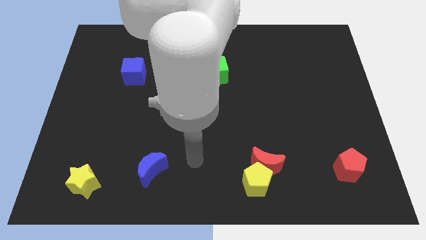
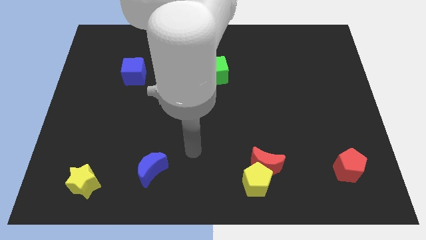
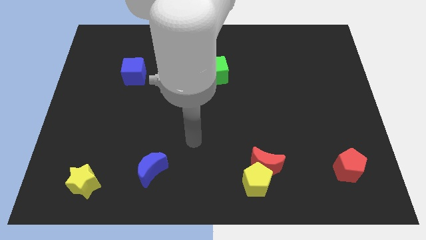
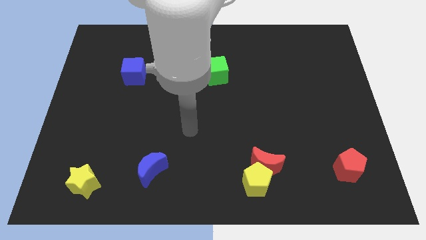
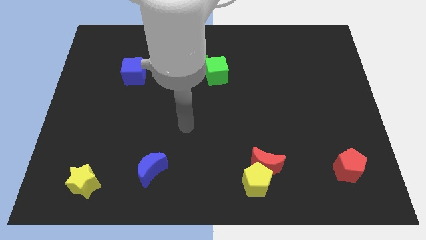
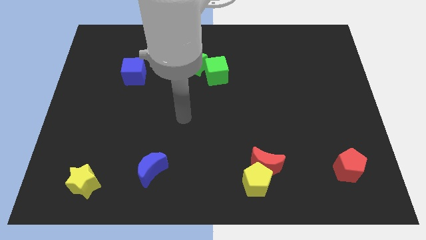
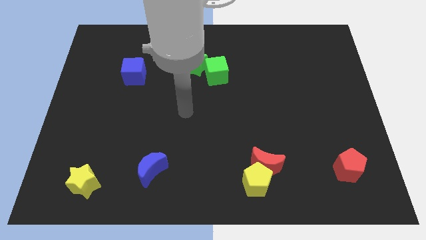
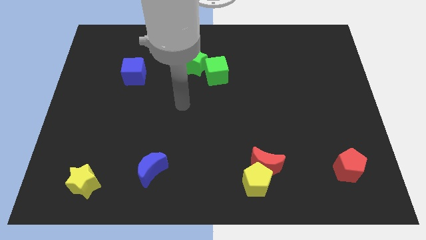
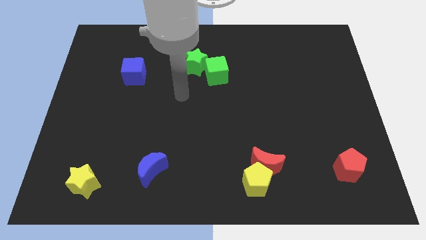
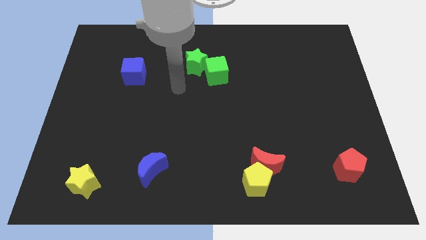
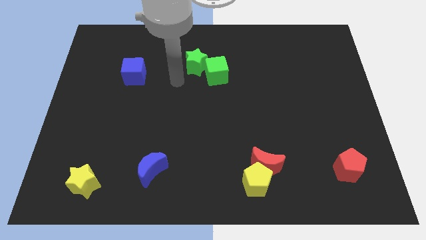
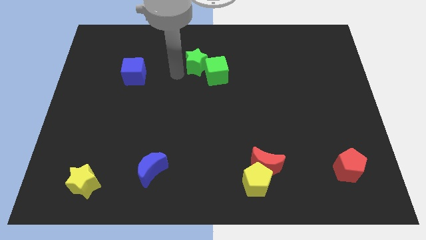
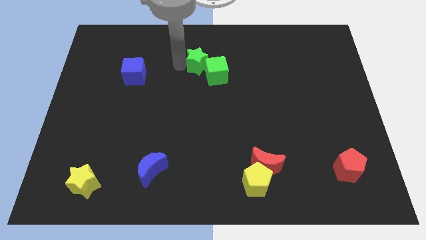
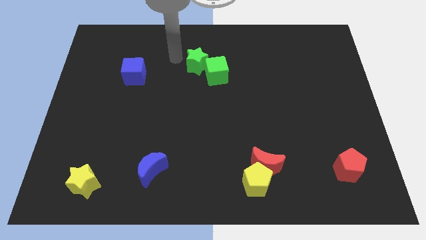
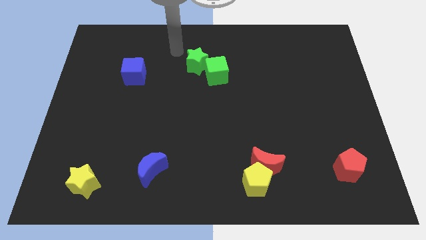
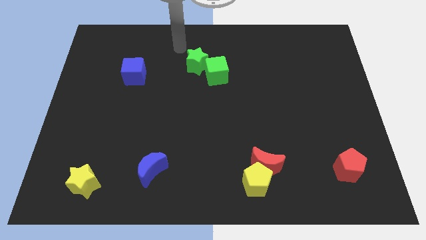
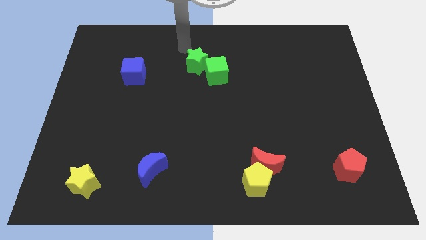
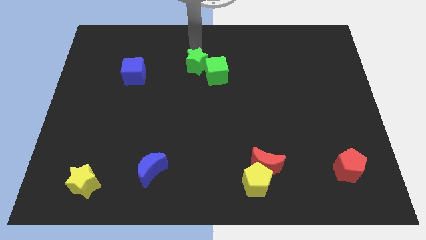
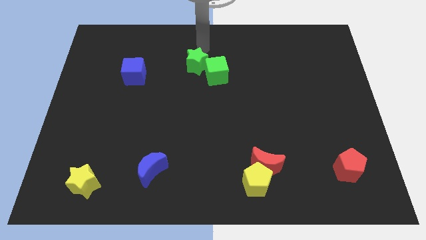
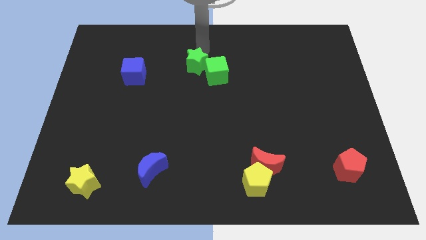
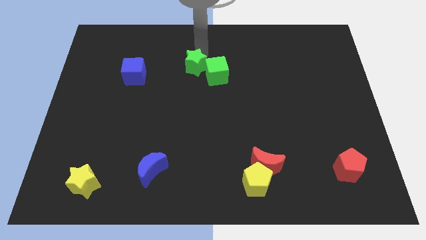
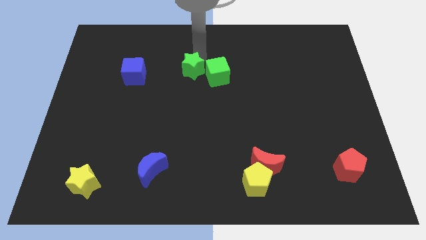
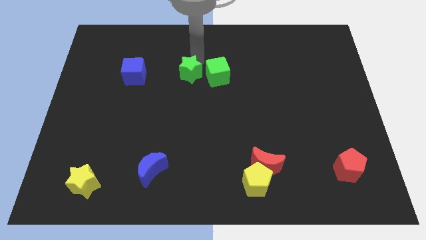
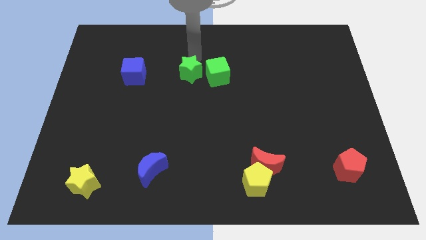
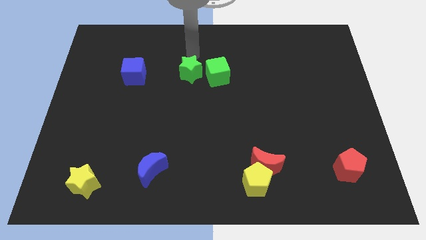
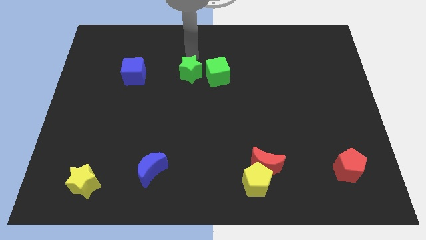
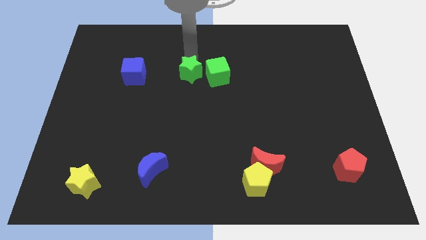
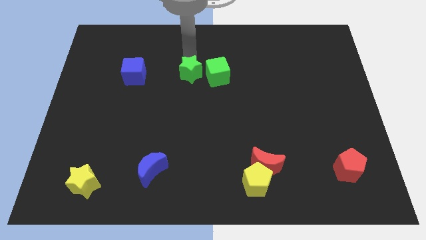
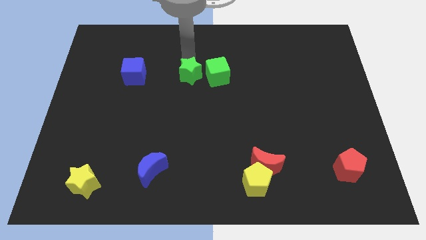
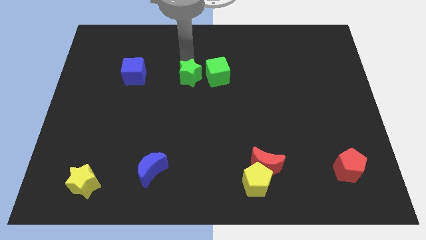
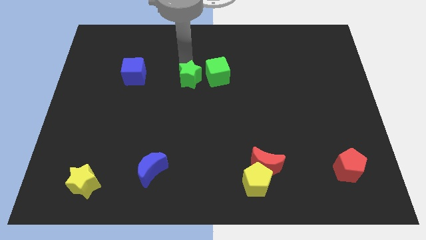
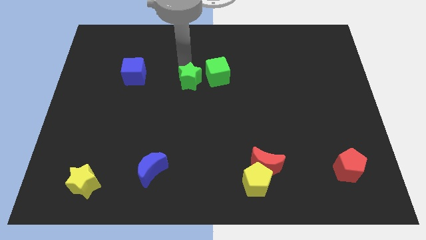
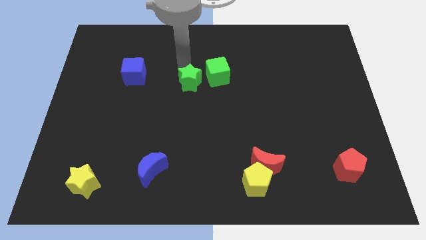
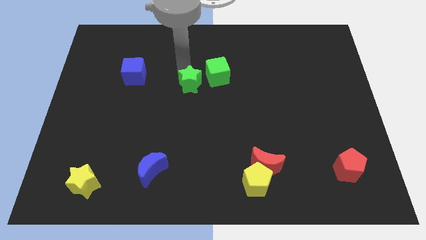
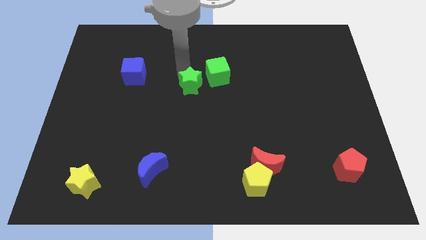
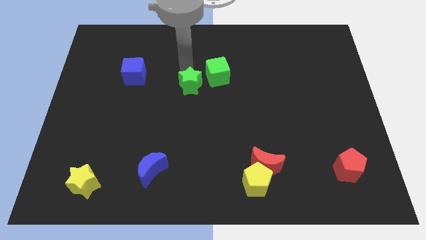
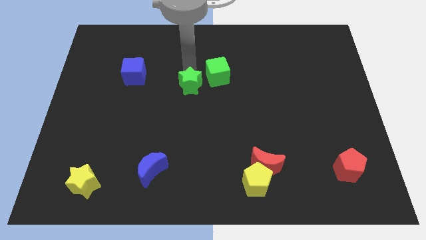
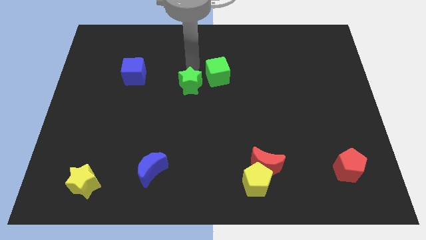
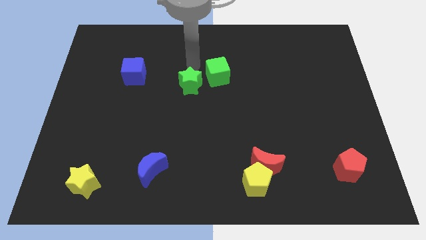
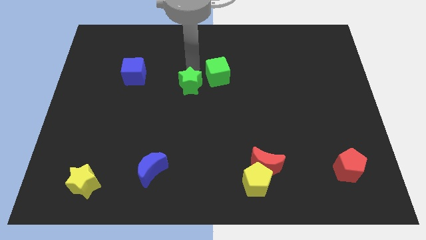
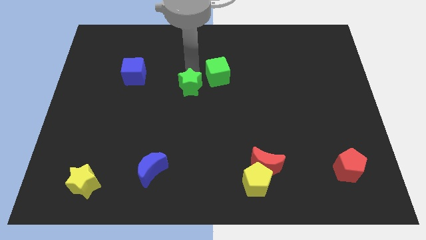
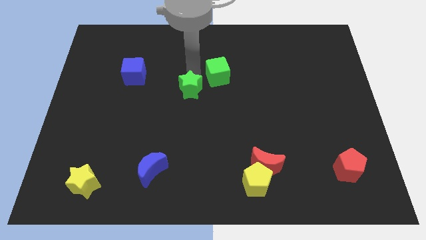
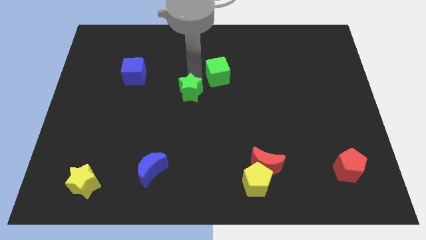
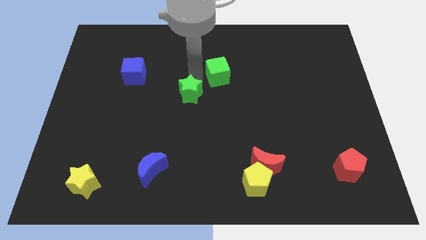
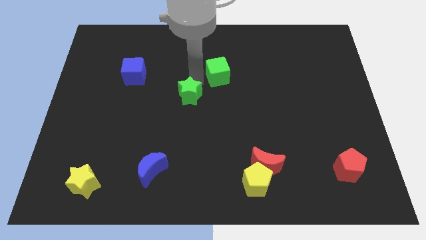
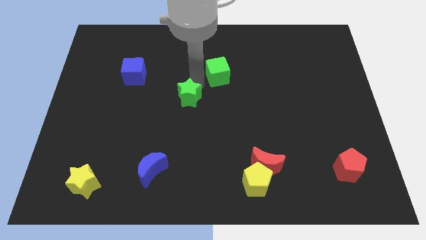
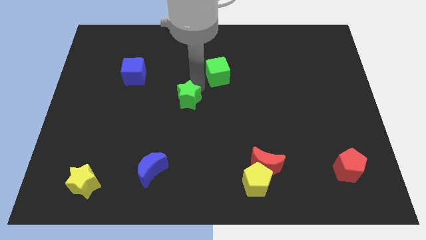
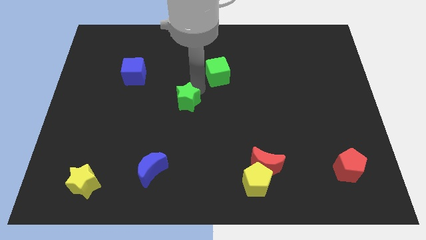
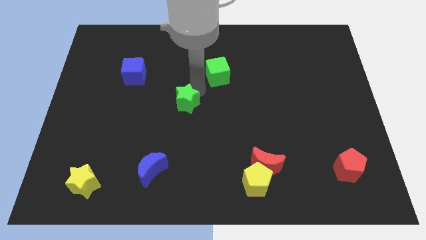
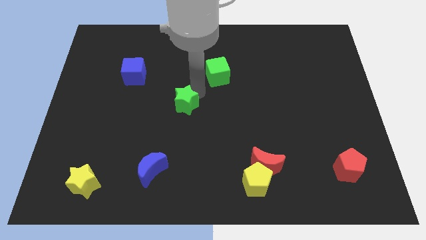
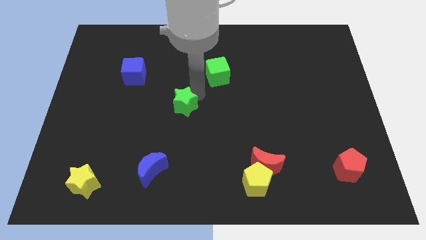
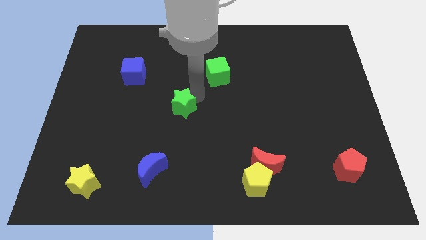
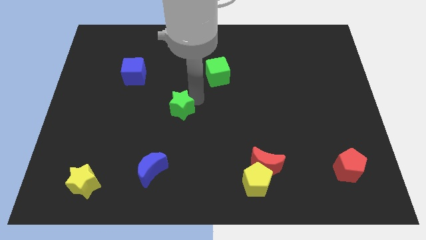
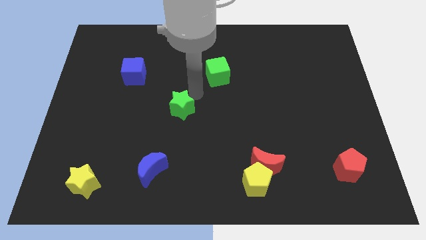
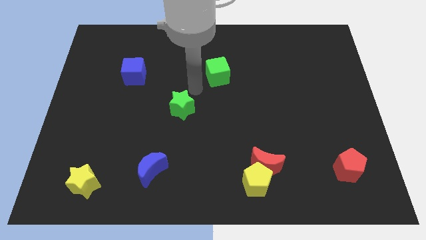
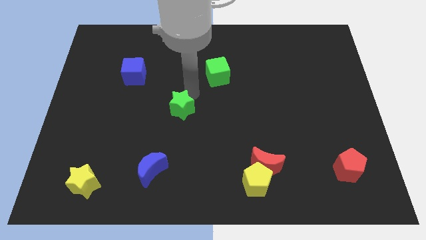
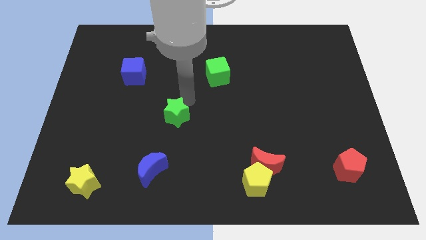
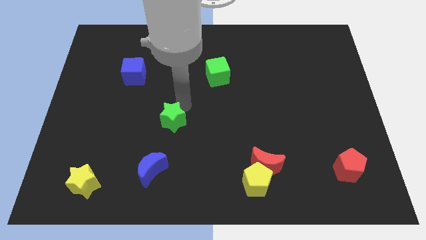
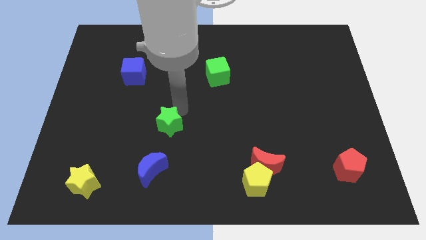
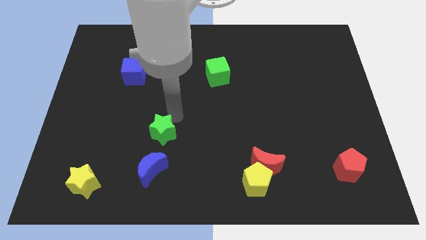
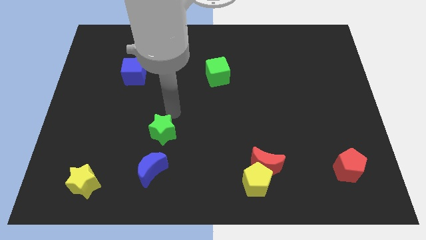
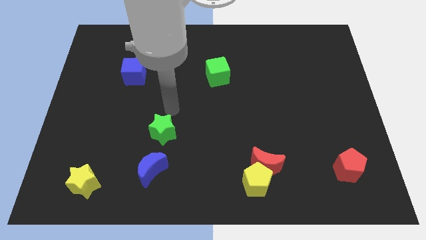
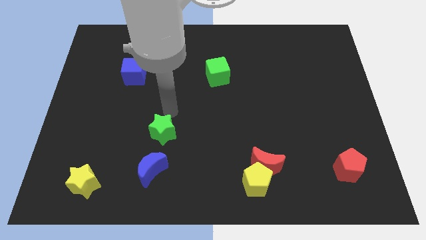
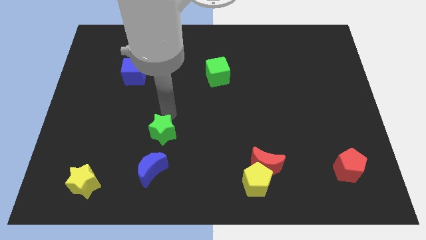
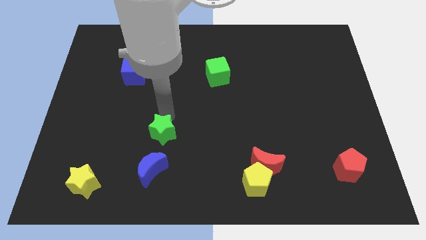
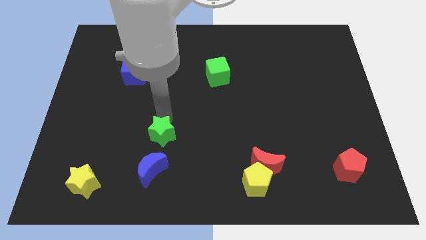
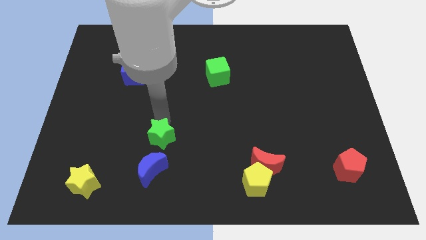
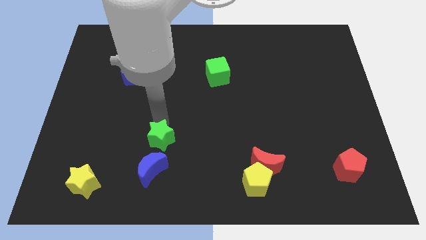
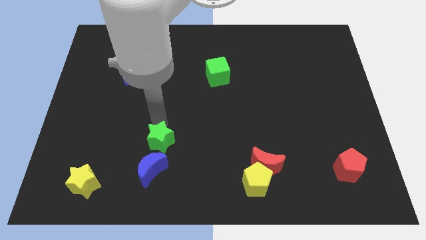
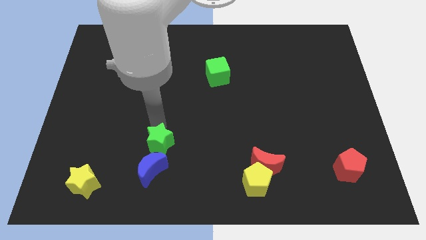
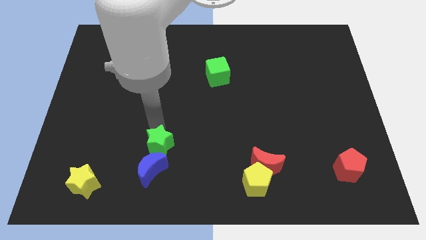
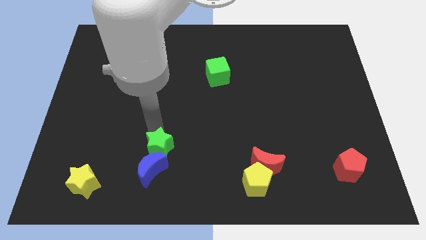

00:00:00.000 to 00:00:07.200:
push the green star to the blue moon
